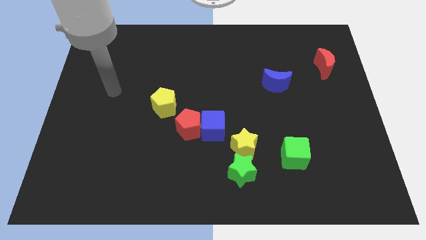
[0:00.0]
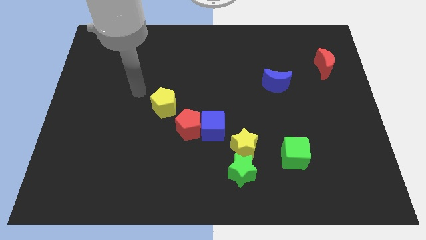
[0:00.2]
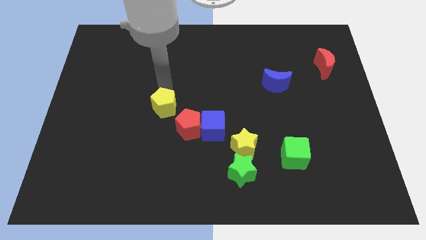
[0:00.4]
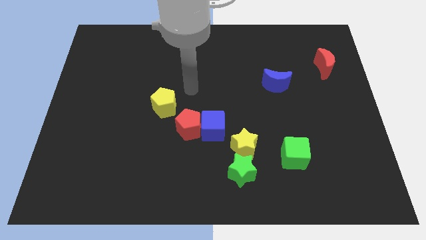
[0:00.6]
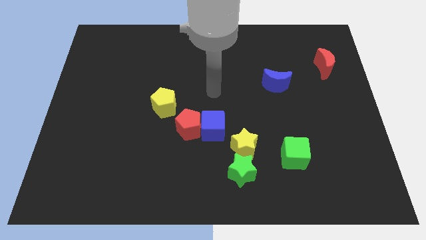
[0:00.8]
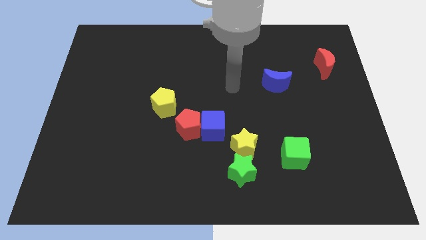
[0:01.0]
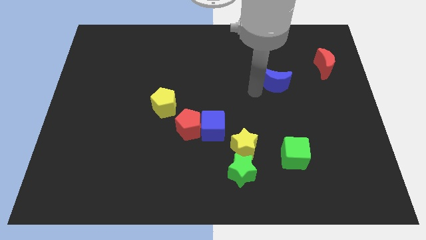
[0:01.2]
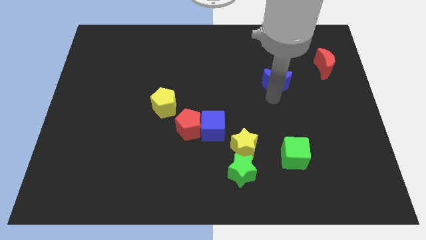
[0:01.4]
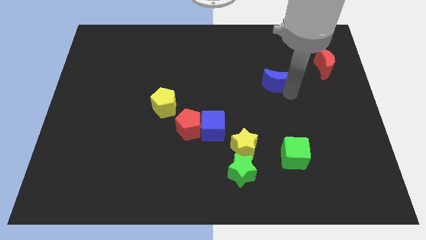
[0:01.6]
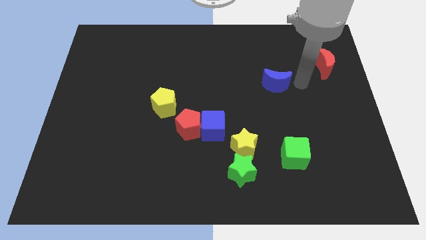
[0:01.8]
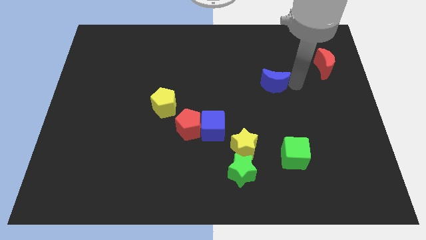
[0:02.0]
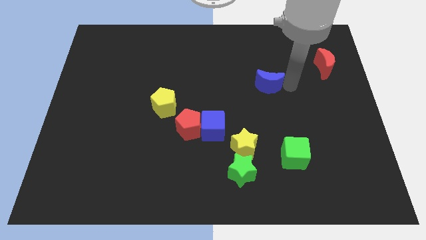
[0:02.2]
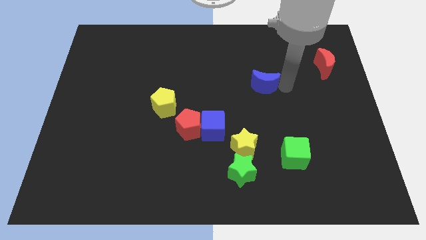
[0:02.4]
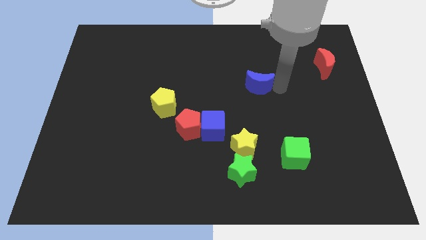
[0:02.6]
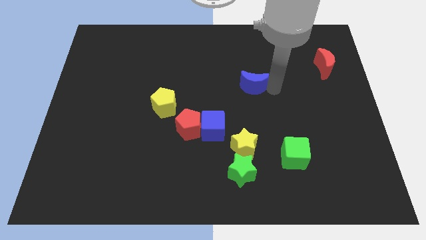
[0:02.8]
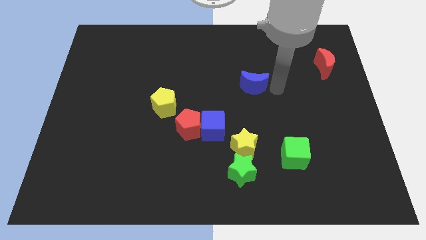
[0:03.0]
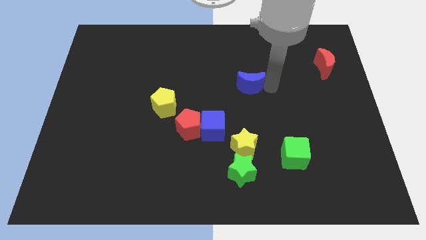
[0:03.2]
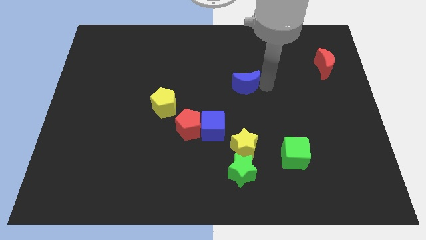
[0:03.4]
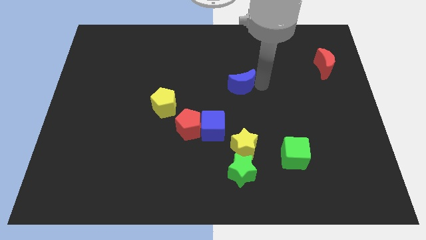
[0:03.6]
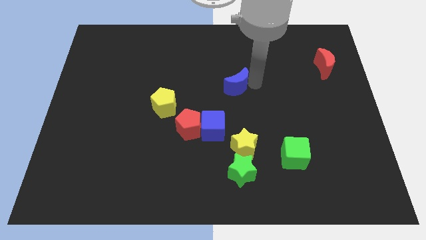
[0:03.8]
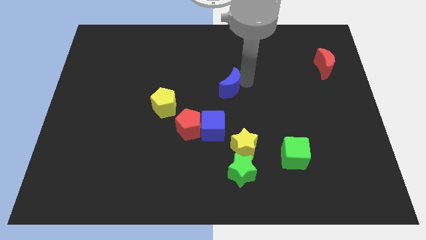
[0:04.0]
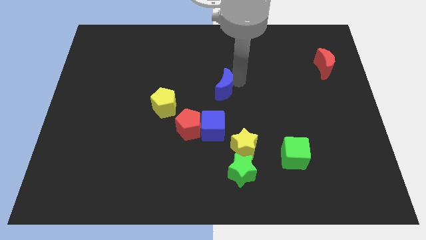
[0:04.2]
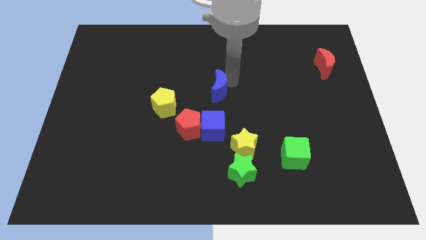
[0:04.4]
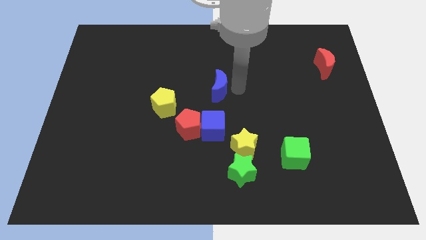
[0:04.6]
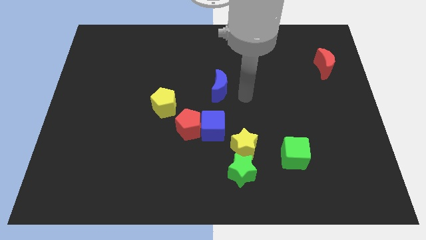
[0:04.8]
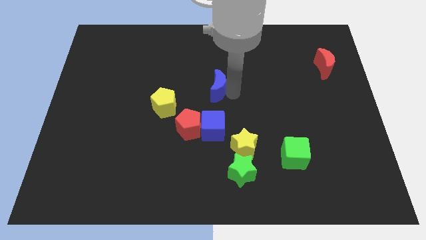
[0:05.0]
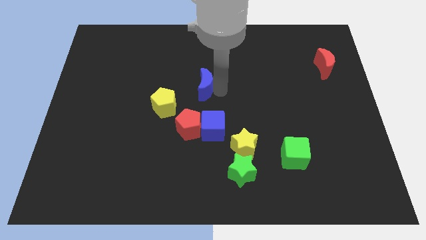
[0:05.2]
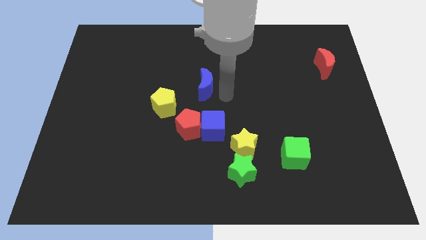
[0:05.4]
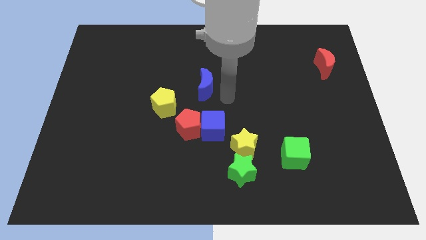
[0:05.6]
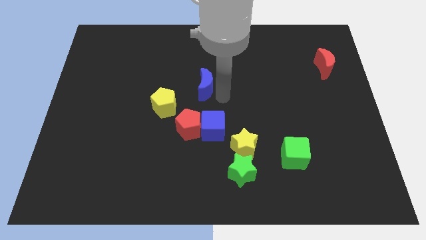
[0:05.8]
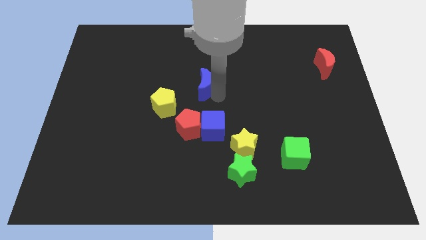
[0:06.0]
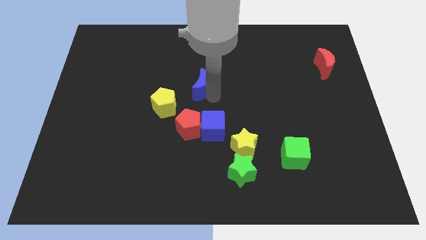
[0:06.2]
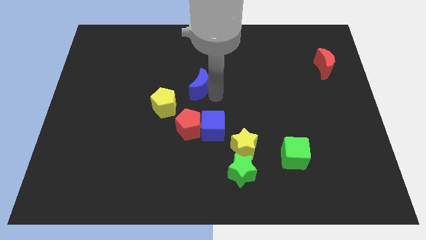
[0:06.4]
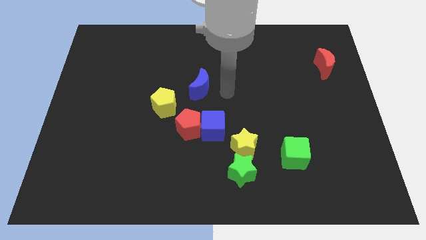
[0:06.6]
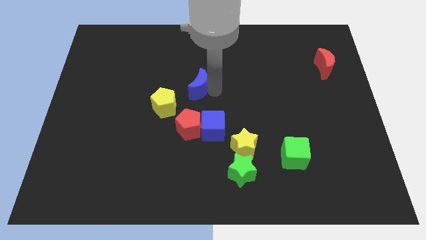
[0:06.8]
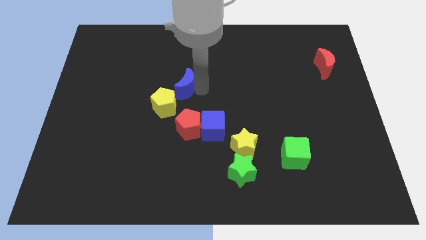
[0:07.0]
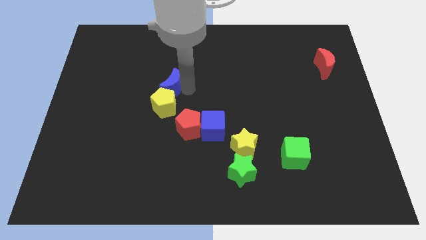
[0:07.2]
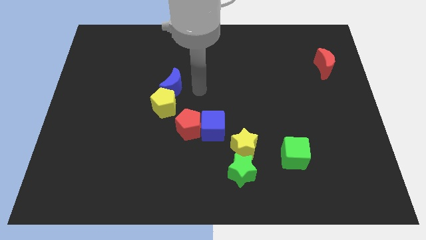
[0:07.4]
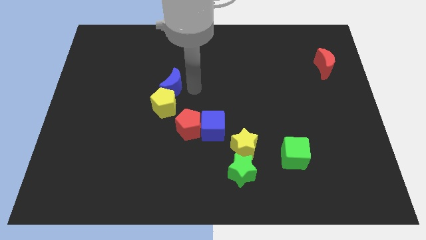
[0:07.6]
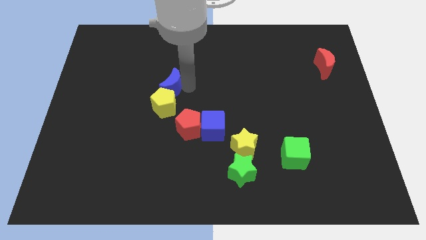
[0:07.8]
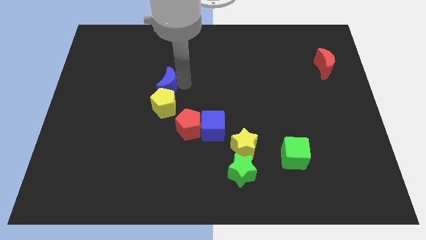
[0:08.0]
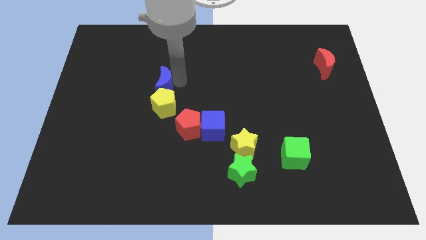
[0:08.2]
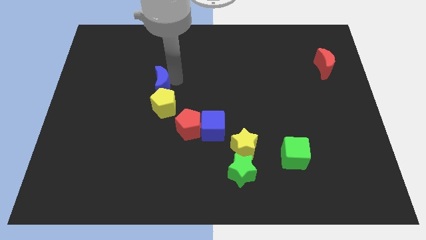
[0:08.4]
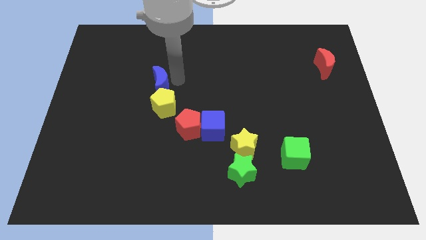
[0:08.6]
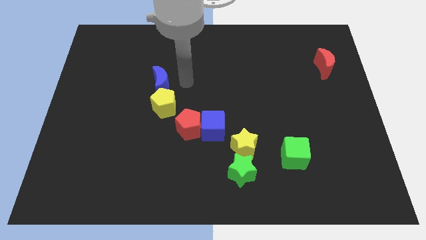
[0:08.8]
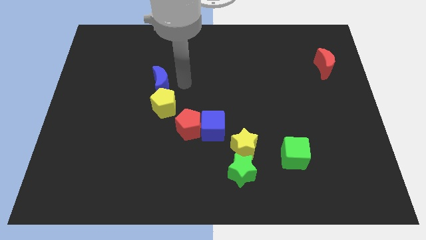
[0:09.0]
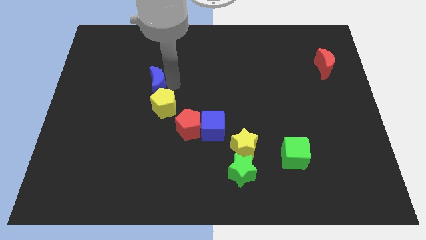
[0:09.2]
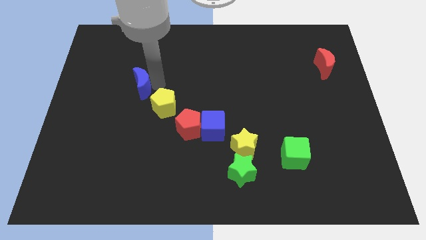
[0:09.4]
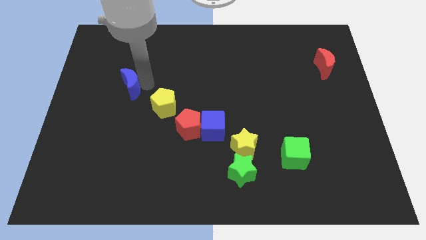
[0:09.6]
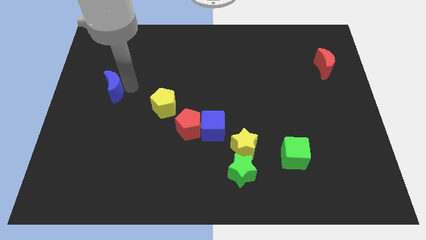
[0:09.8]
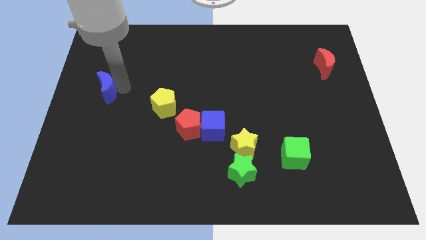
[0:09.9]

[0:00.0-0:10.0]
move the blue moon to the left side of the board
